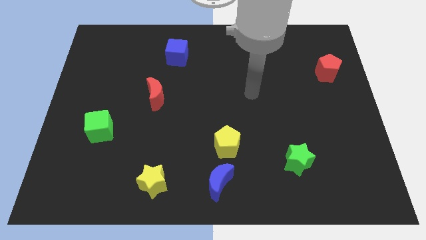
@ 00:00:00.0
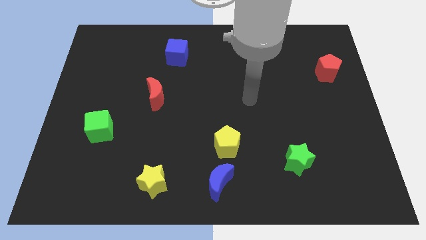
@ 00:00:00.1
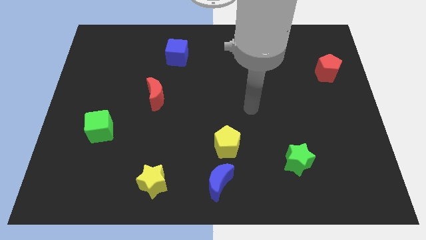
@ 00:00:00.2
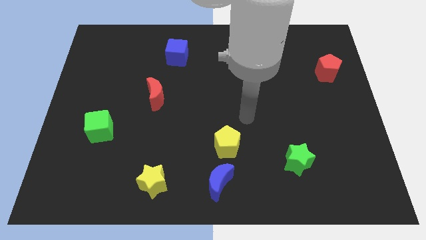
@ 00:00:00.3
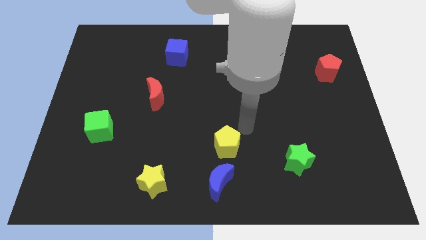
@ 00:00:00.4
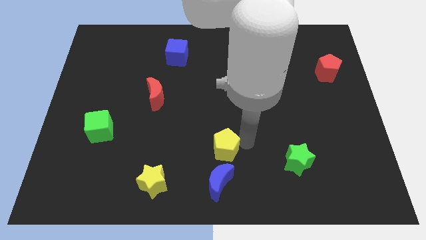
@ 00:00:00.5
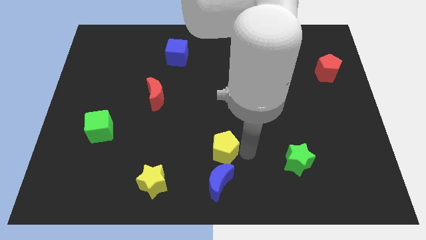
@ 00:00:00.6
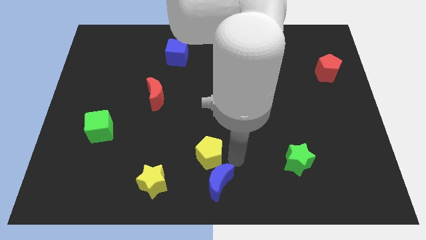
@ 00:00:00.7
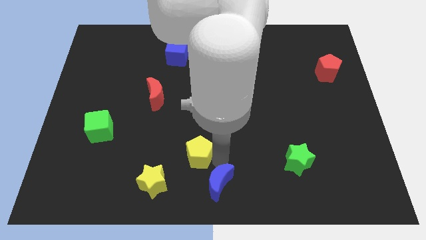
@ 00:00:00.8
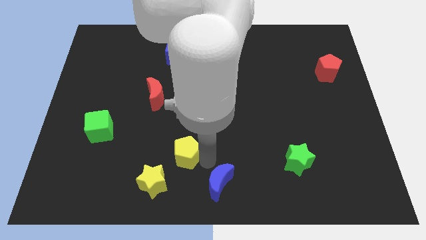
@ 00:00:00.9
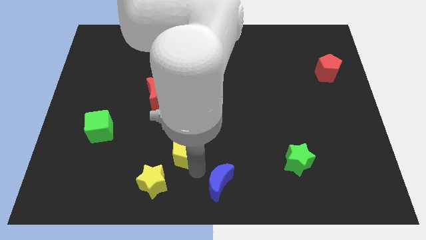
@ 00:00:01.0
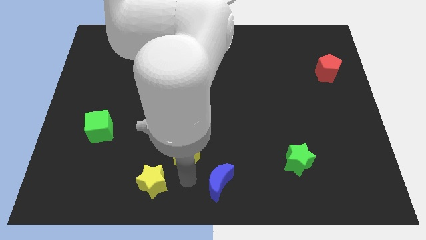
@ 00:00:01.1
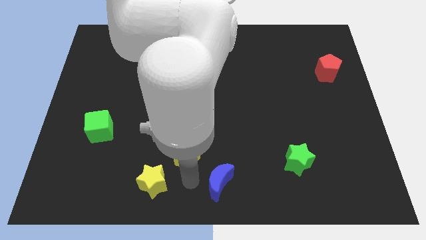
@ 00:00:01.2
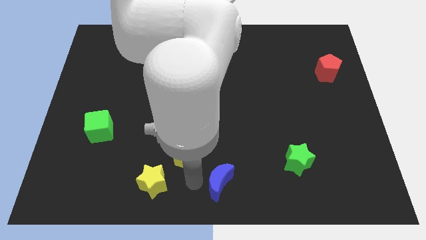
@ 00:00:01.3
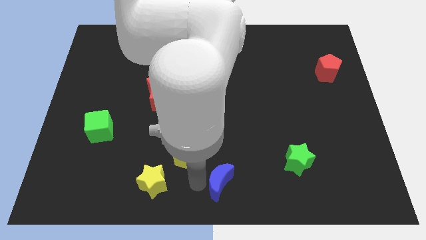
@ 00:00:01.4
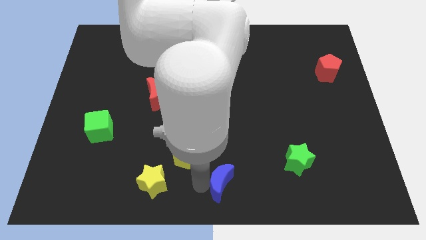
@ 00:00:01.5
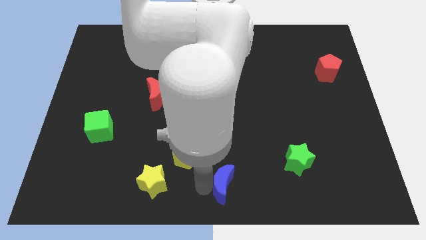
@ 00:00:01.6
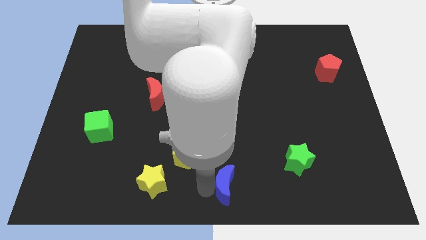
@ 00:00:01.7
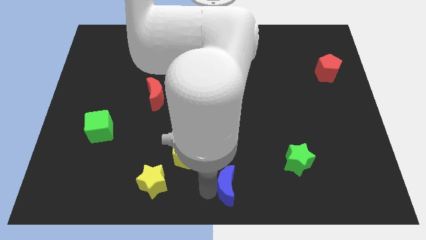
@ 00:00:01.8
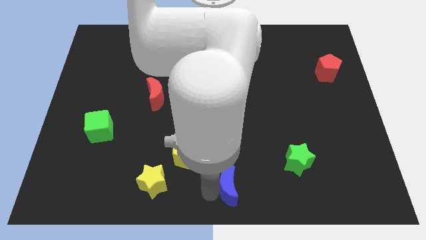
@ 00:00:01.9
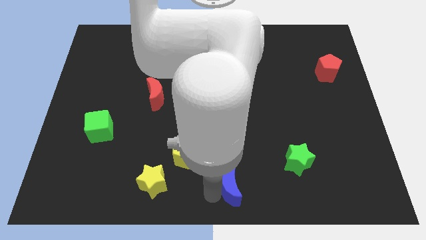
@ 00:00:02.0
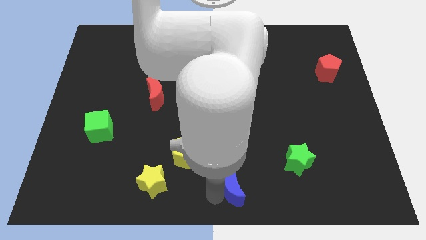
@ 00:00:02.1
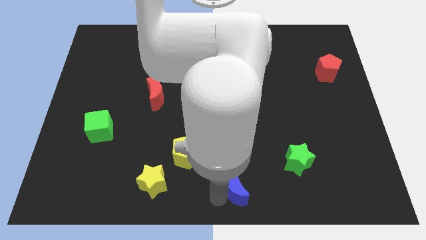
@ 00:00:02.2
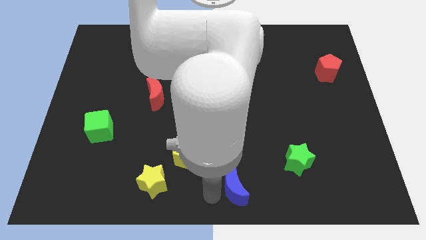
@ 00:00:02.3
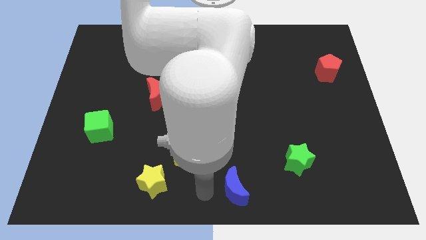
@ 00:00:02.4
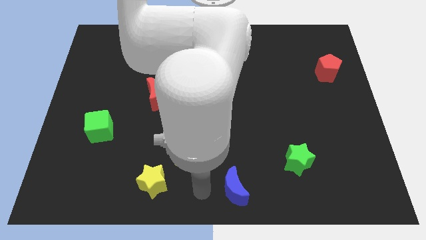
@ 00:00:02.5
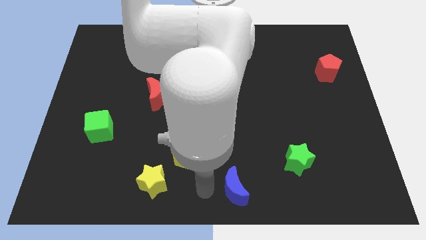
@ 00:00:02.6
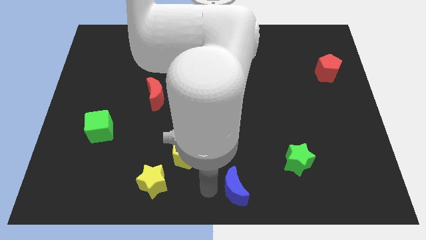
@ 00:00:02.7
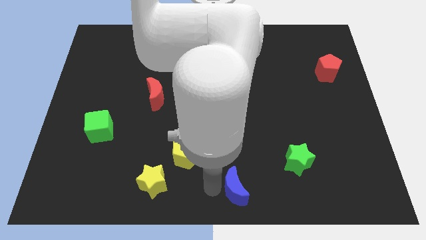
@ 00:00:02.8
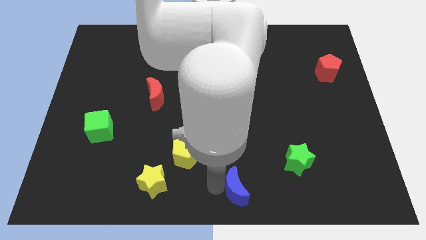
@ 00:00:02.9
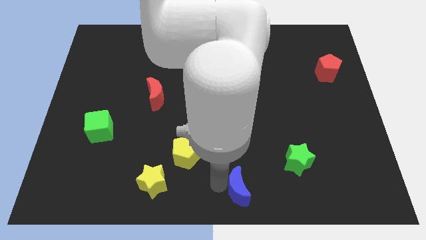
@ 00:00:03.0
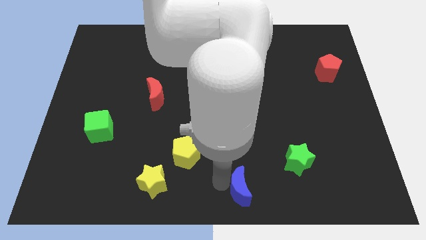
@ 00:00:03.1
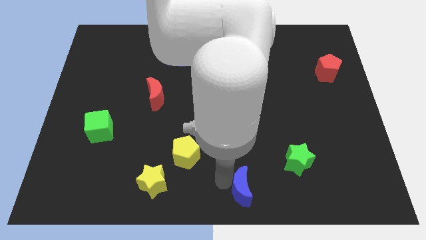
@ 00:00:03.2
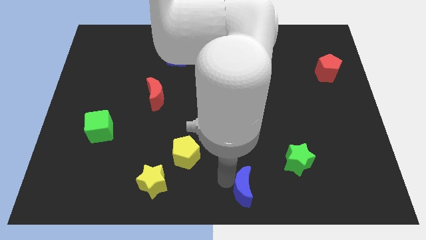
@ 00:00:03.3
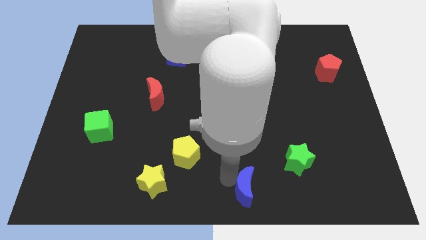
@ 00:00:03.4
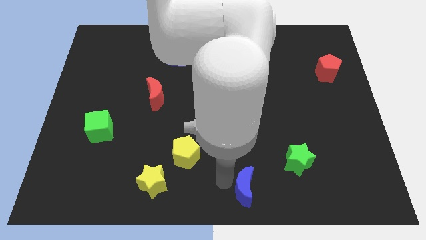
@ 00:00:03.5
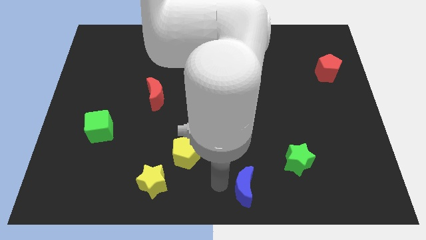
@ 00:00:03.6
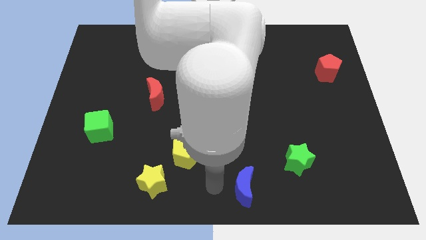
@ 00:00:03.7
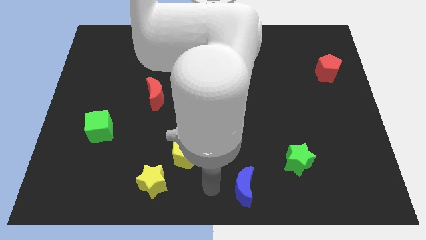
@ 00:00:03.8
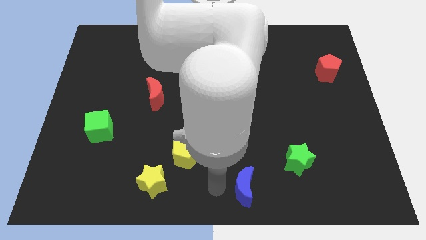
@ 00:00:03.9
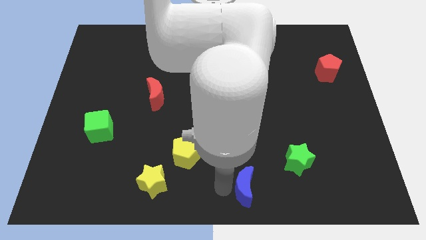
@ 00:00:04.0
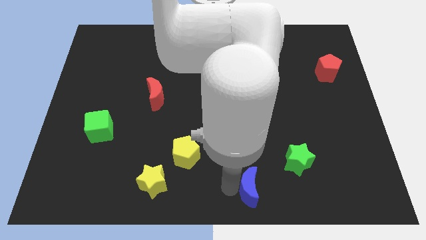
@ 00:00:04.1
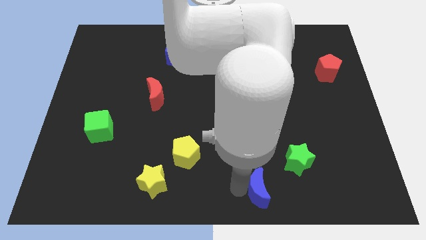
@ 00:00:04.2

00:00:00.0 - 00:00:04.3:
slide the blue moon right a little

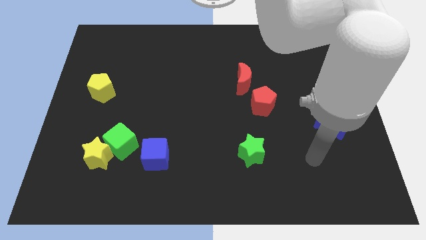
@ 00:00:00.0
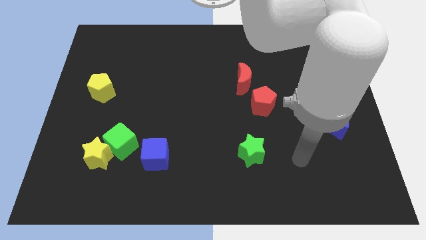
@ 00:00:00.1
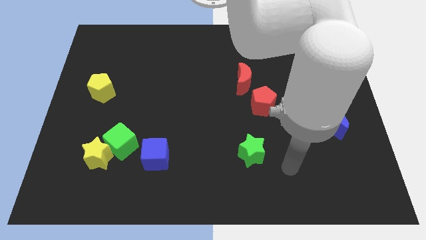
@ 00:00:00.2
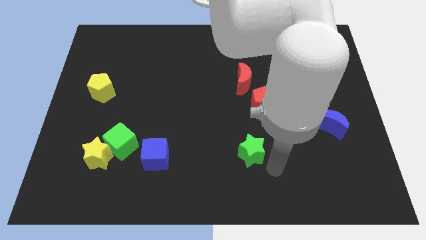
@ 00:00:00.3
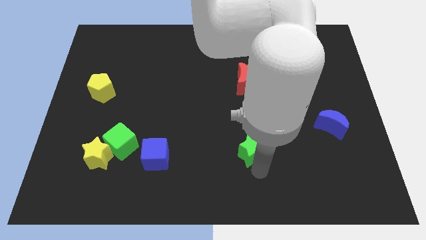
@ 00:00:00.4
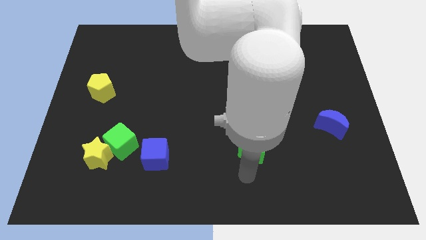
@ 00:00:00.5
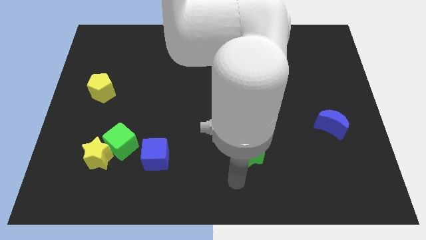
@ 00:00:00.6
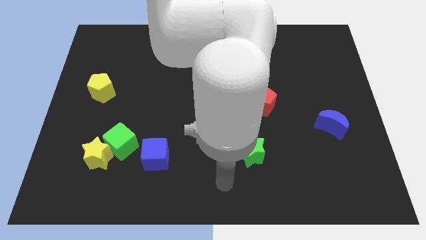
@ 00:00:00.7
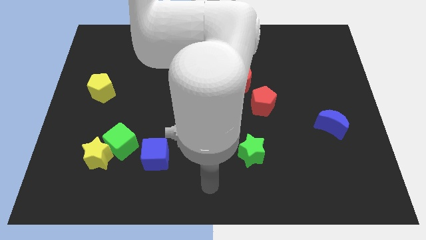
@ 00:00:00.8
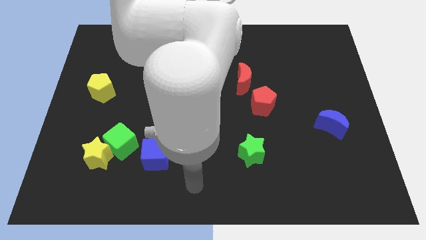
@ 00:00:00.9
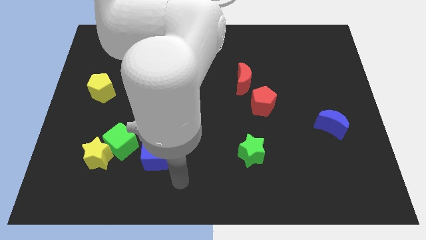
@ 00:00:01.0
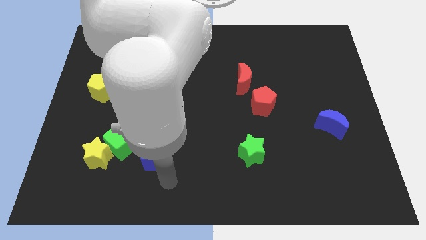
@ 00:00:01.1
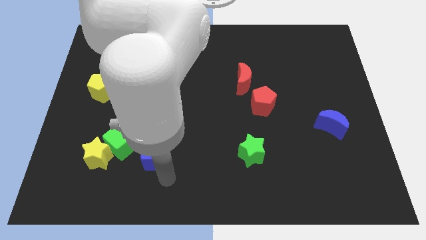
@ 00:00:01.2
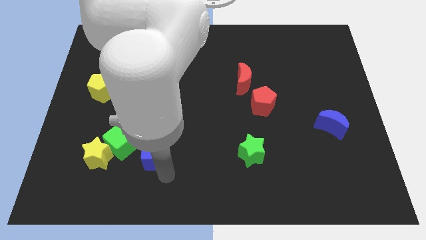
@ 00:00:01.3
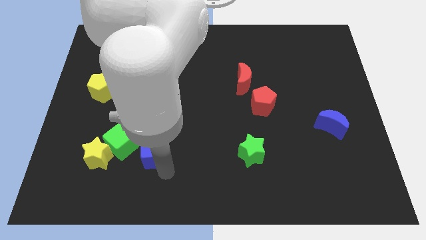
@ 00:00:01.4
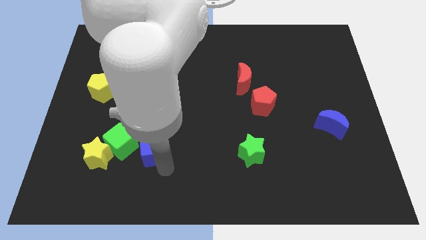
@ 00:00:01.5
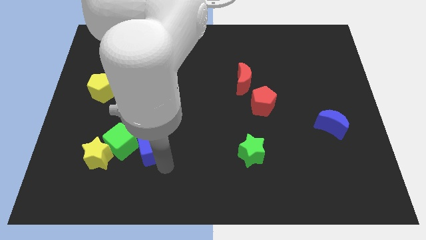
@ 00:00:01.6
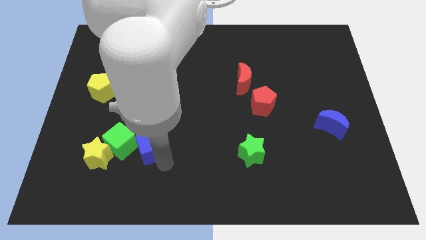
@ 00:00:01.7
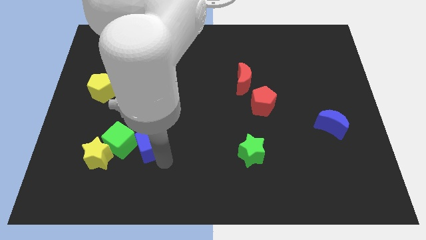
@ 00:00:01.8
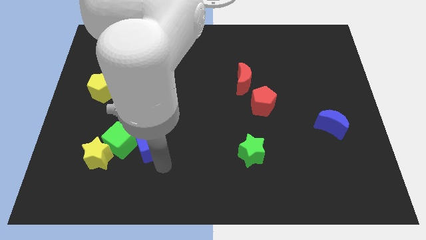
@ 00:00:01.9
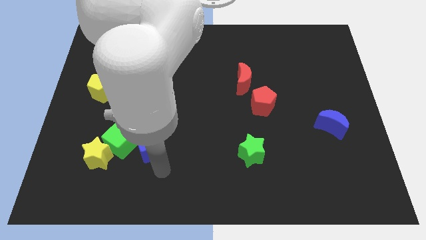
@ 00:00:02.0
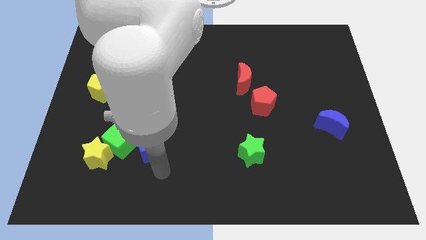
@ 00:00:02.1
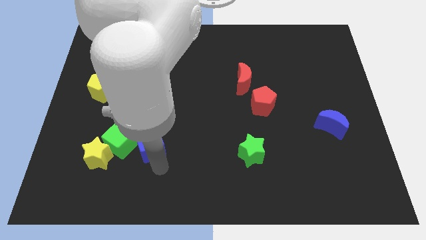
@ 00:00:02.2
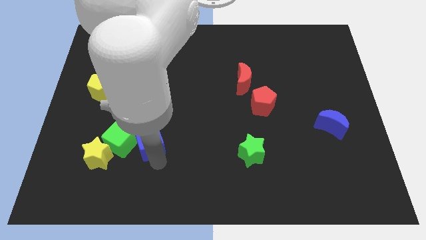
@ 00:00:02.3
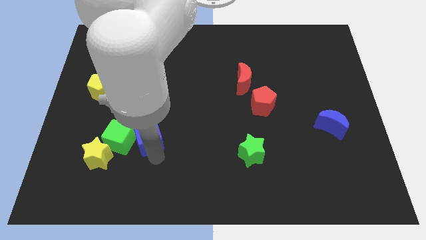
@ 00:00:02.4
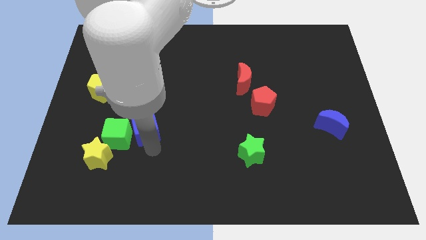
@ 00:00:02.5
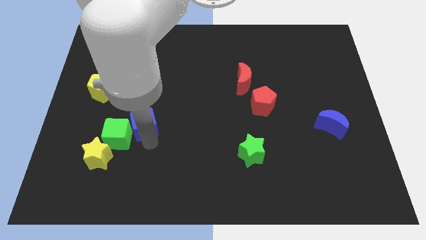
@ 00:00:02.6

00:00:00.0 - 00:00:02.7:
slide the blue cube upwards and to the left a little bit

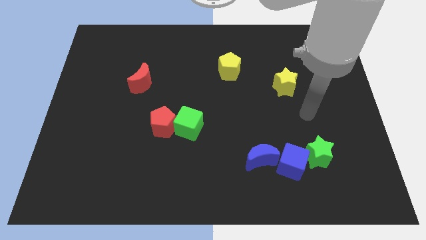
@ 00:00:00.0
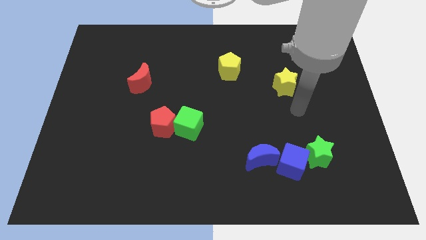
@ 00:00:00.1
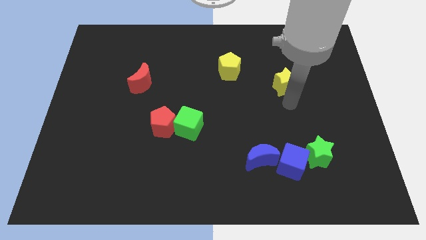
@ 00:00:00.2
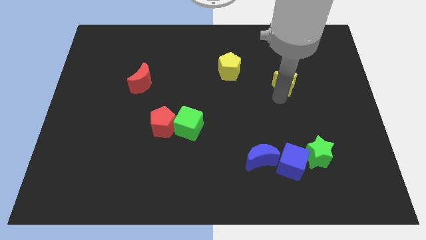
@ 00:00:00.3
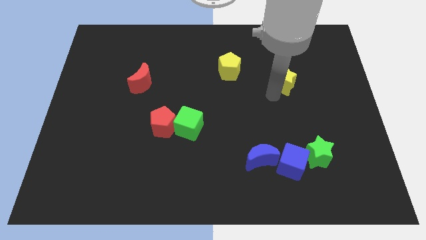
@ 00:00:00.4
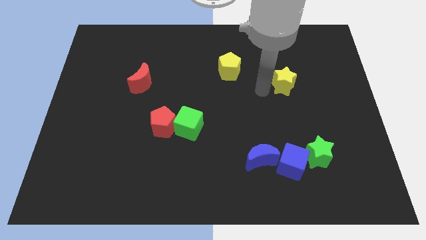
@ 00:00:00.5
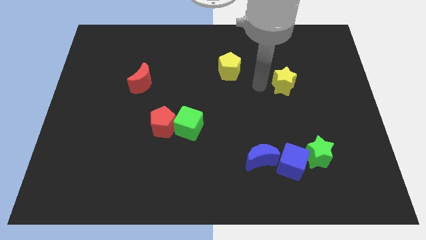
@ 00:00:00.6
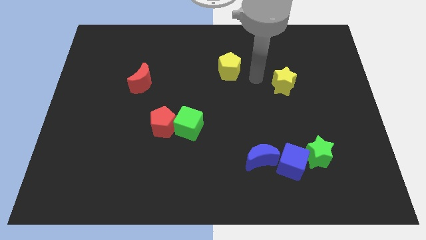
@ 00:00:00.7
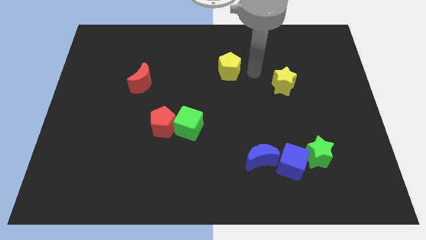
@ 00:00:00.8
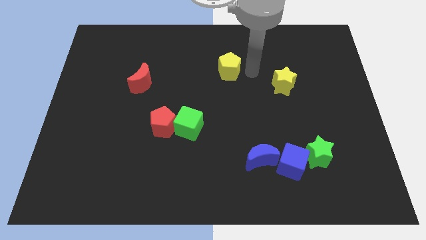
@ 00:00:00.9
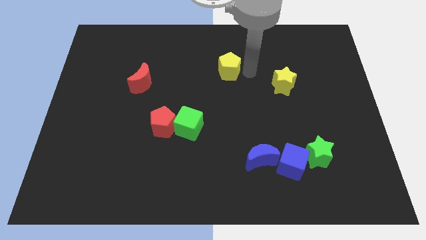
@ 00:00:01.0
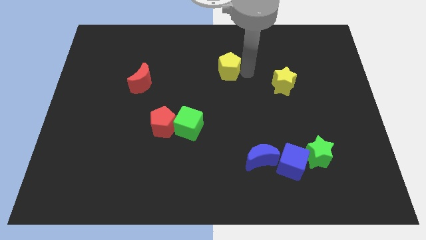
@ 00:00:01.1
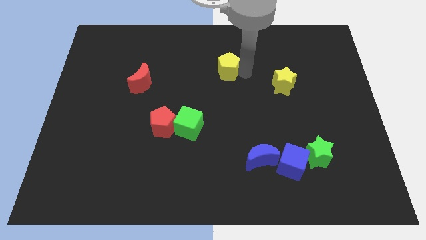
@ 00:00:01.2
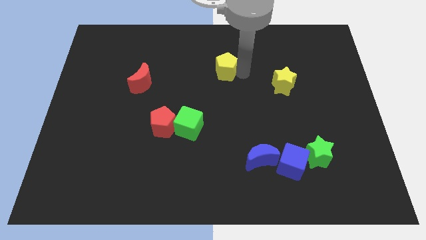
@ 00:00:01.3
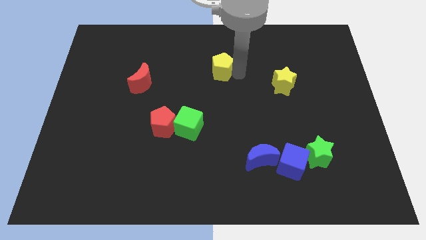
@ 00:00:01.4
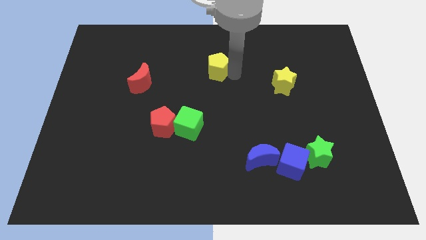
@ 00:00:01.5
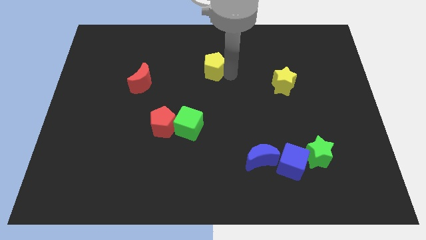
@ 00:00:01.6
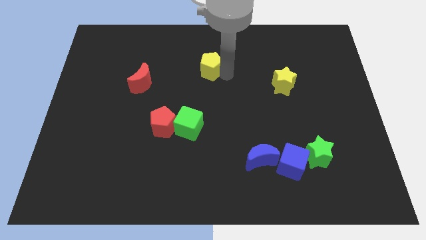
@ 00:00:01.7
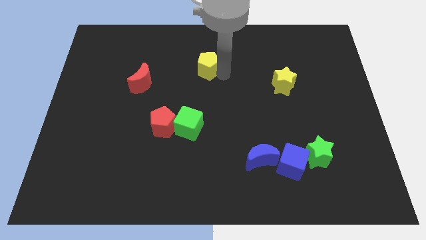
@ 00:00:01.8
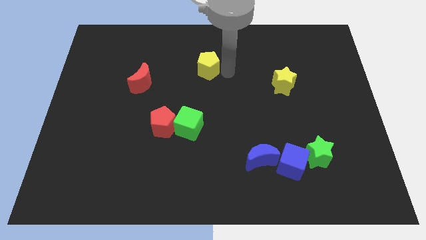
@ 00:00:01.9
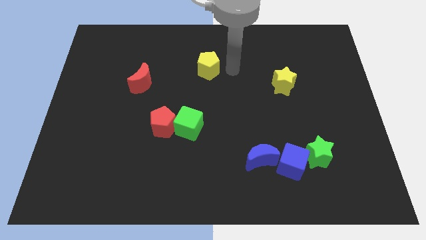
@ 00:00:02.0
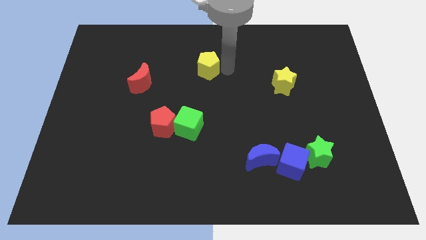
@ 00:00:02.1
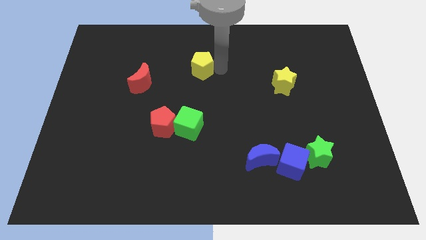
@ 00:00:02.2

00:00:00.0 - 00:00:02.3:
slightly push the yellow pentagon to the left
